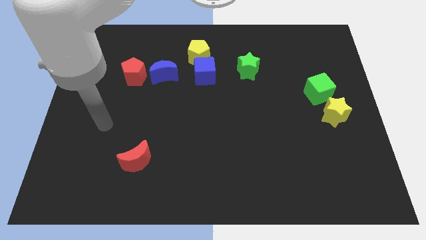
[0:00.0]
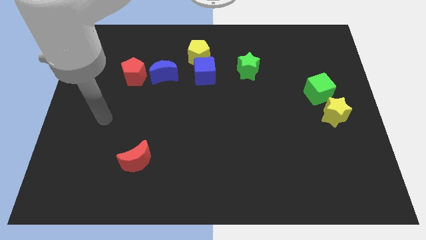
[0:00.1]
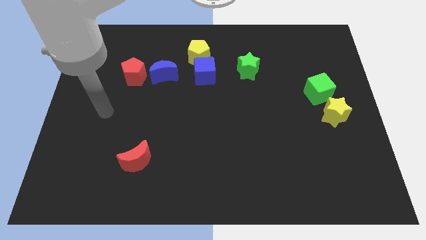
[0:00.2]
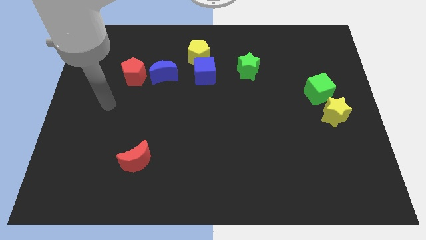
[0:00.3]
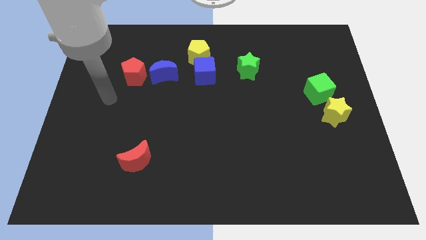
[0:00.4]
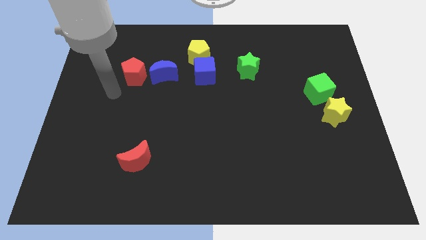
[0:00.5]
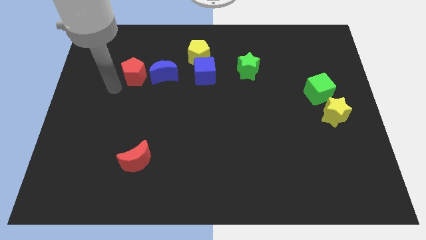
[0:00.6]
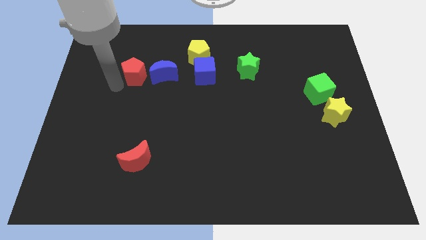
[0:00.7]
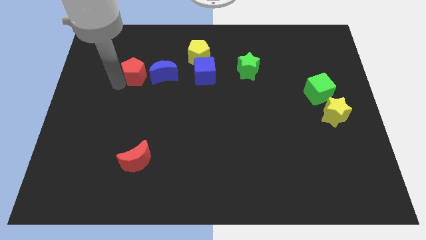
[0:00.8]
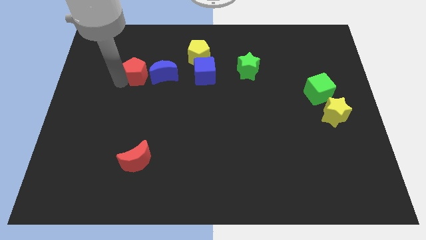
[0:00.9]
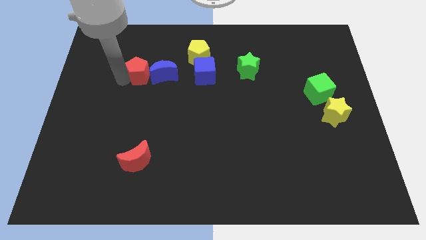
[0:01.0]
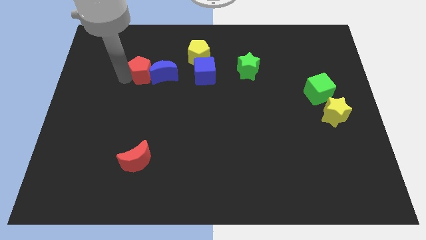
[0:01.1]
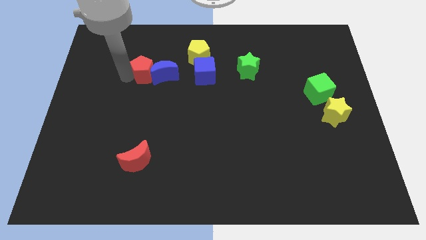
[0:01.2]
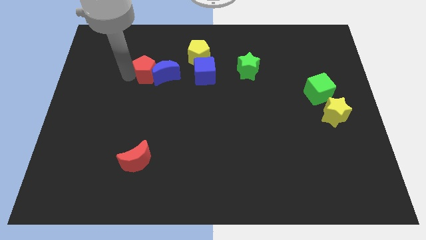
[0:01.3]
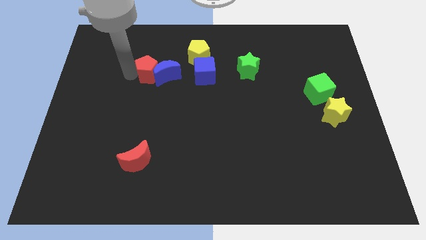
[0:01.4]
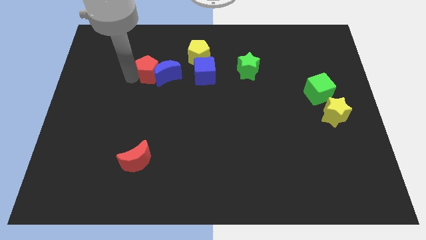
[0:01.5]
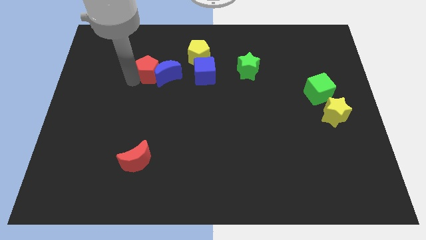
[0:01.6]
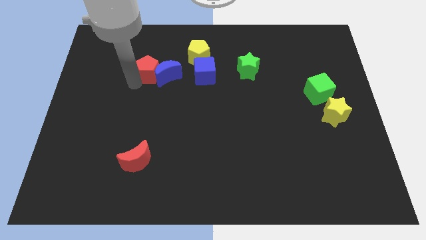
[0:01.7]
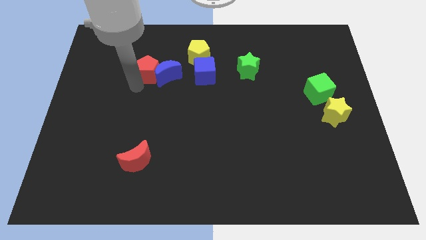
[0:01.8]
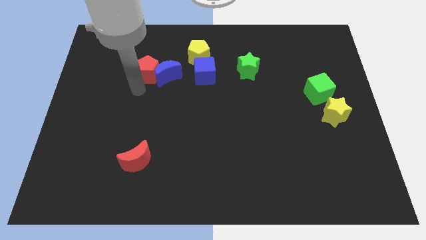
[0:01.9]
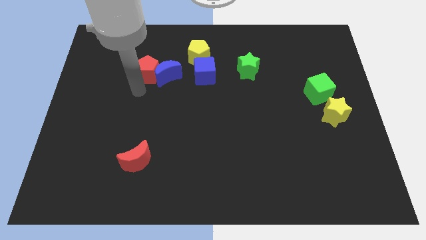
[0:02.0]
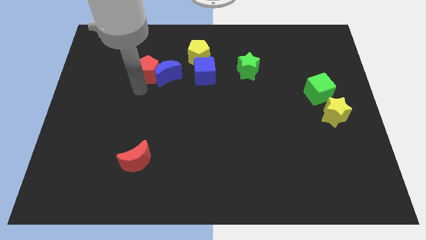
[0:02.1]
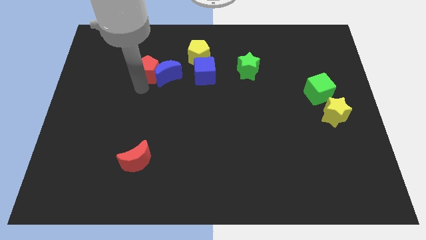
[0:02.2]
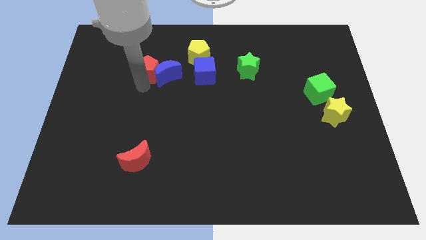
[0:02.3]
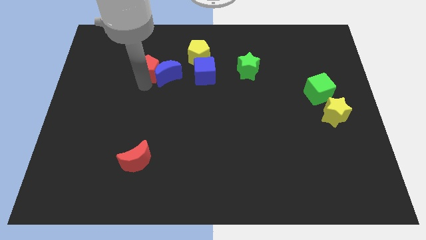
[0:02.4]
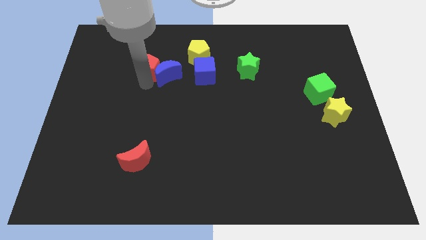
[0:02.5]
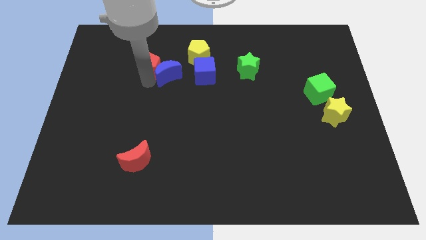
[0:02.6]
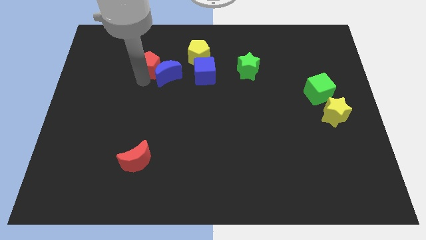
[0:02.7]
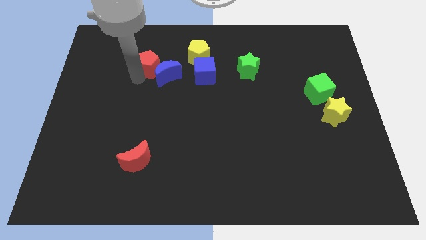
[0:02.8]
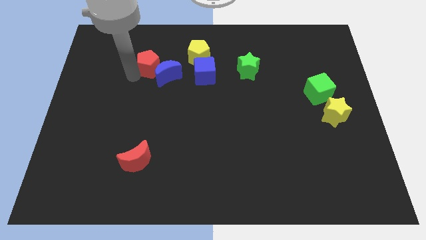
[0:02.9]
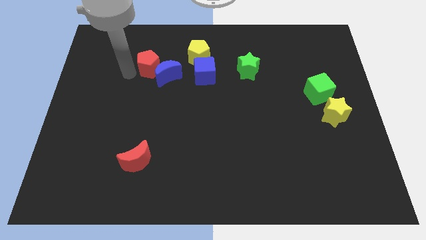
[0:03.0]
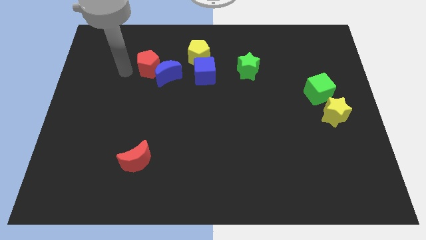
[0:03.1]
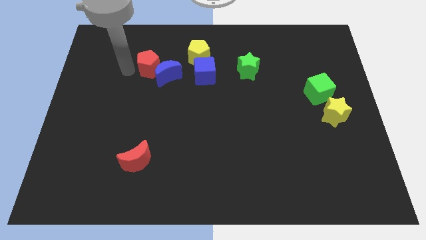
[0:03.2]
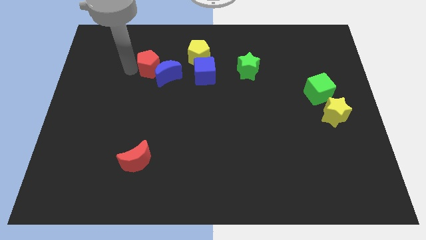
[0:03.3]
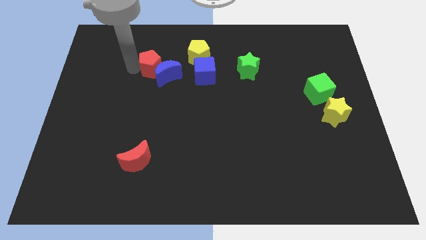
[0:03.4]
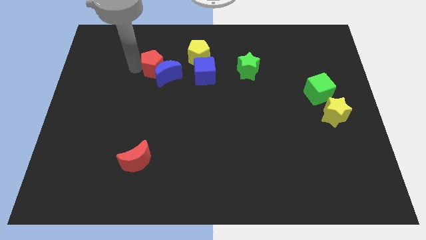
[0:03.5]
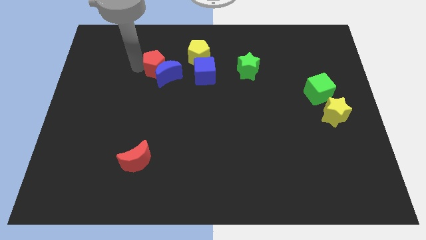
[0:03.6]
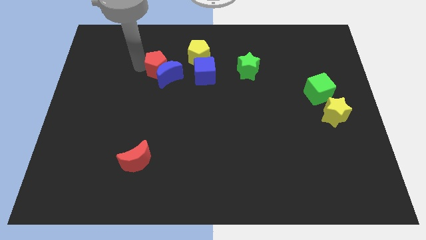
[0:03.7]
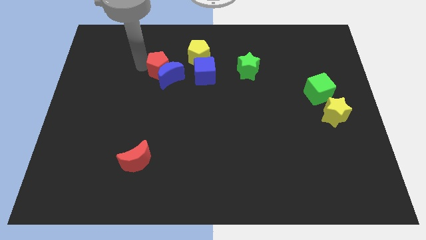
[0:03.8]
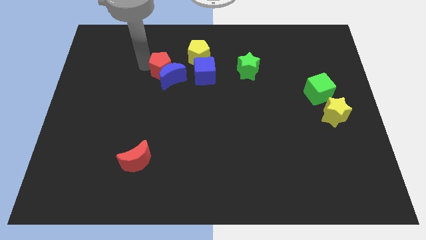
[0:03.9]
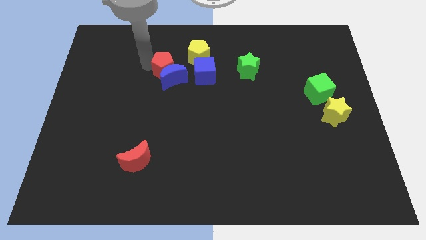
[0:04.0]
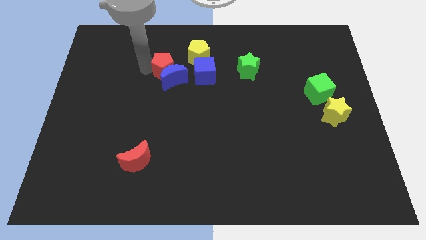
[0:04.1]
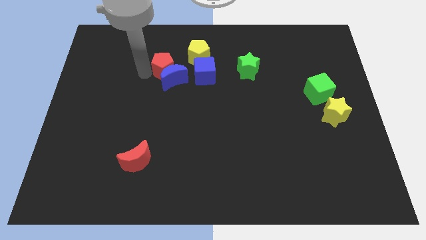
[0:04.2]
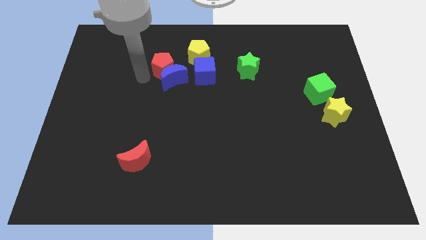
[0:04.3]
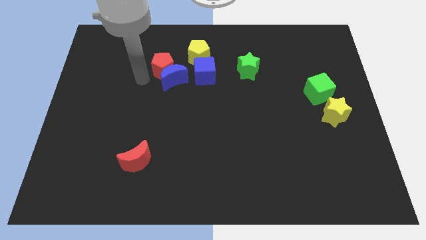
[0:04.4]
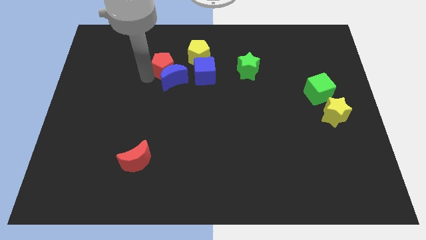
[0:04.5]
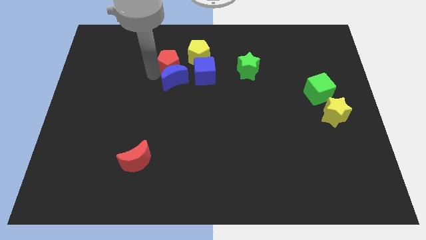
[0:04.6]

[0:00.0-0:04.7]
move the red pentagon to the top left of the blue cube

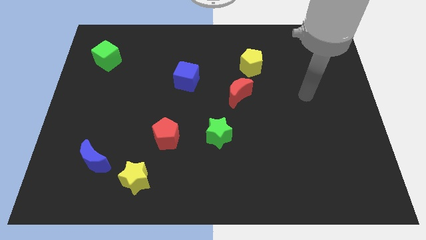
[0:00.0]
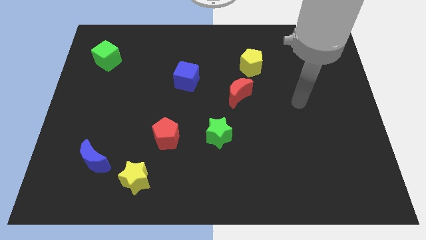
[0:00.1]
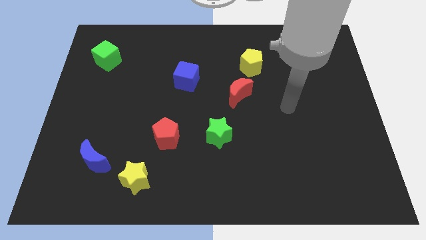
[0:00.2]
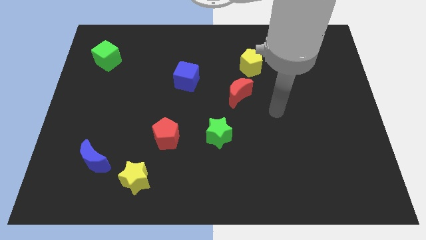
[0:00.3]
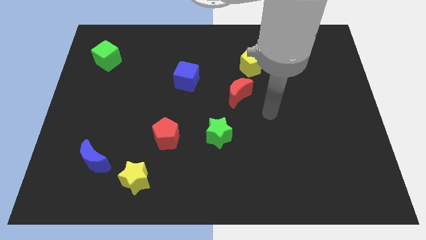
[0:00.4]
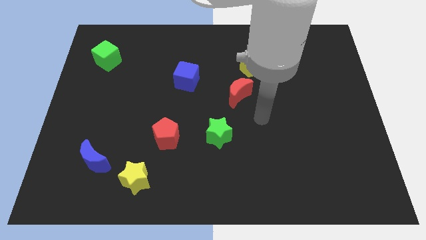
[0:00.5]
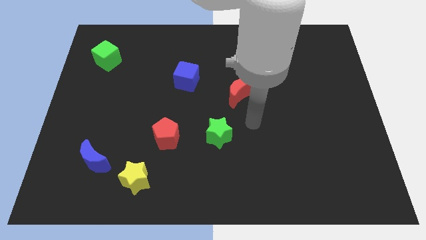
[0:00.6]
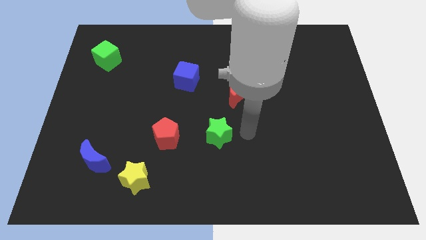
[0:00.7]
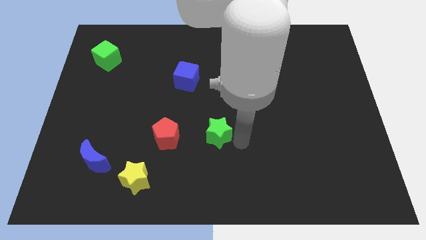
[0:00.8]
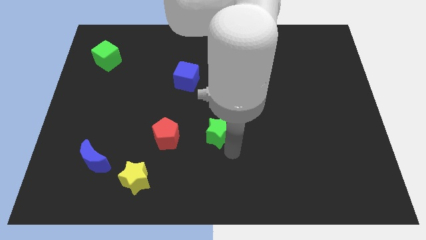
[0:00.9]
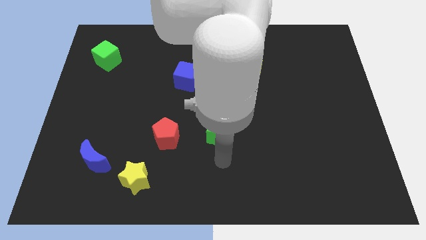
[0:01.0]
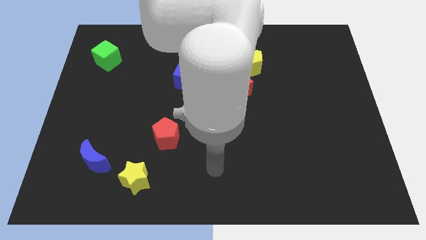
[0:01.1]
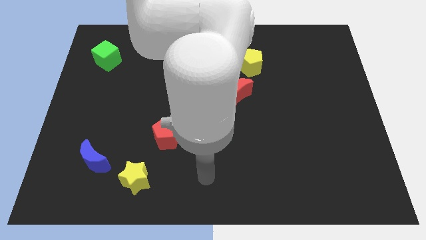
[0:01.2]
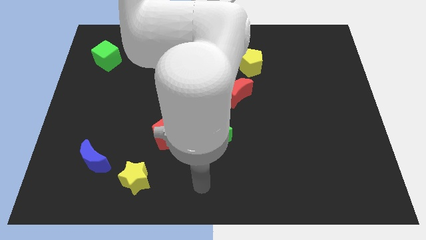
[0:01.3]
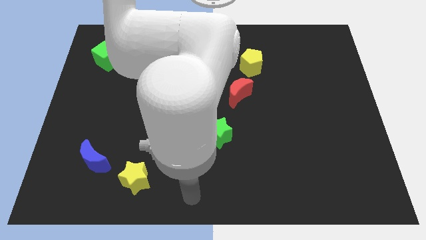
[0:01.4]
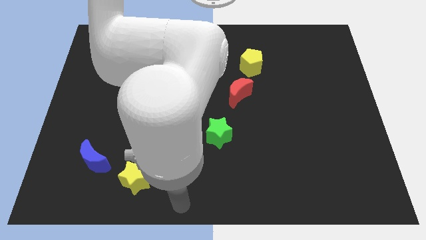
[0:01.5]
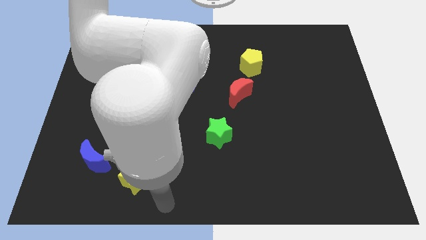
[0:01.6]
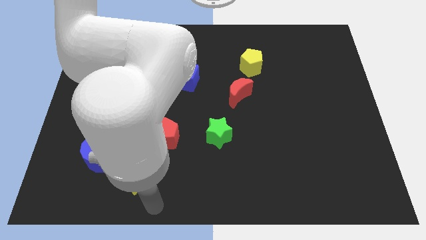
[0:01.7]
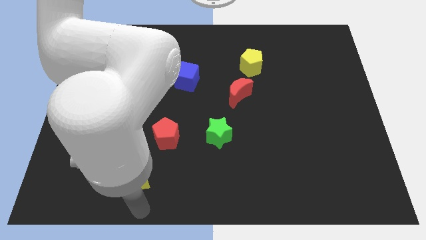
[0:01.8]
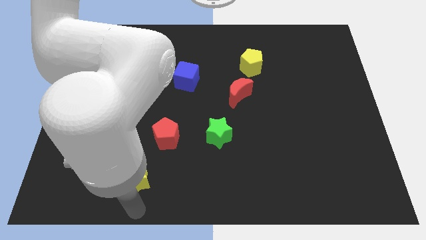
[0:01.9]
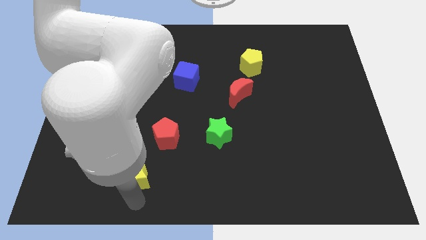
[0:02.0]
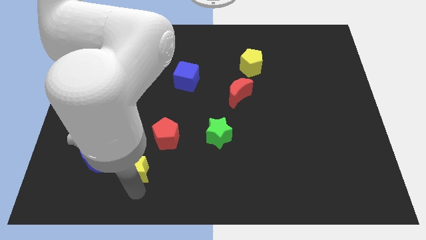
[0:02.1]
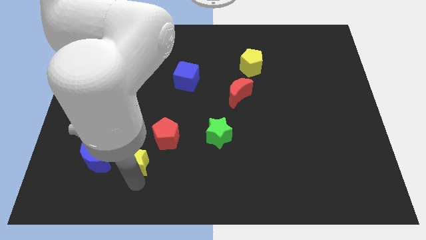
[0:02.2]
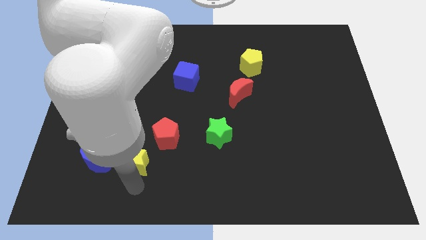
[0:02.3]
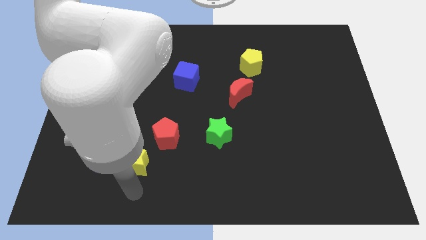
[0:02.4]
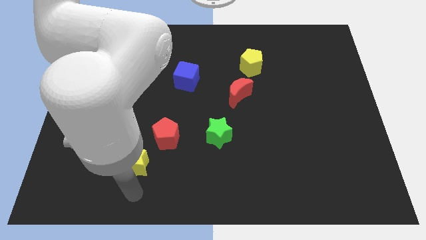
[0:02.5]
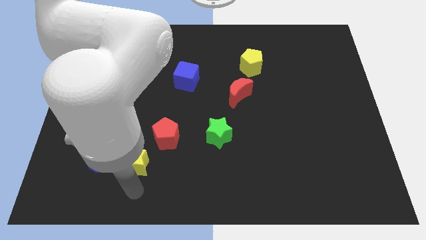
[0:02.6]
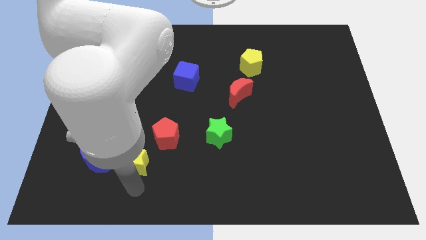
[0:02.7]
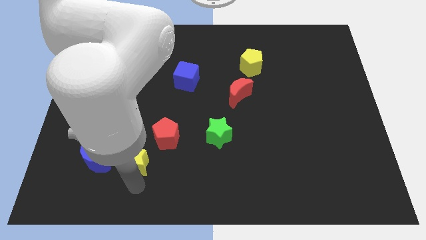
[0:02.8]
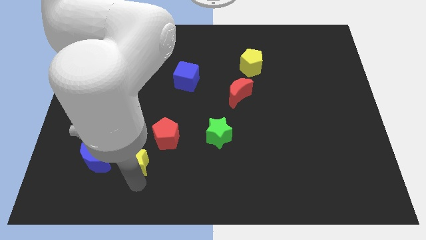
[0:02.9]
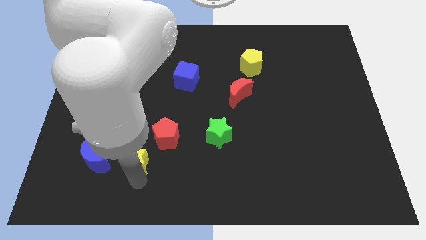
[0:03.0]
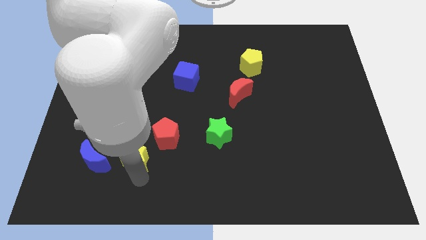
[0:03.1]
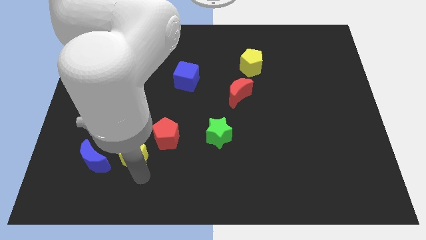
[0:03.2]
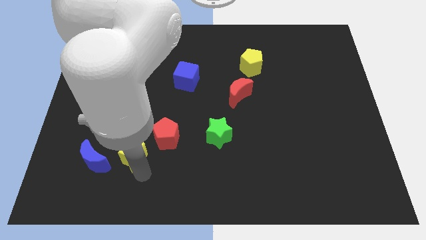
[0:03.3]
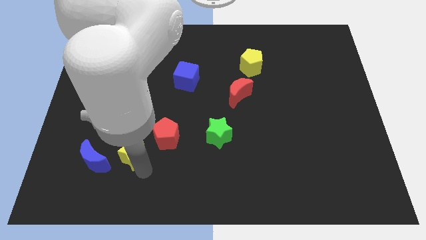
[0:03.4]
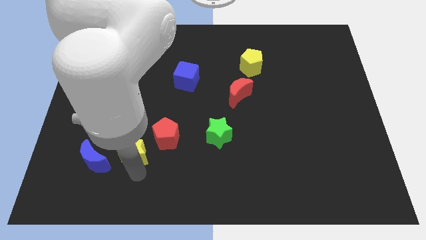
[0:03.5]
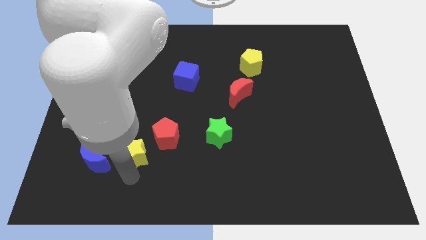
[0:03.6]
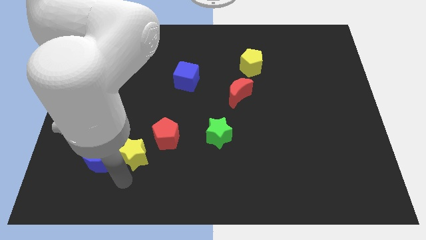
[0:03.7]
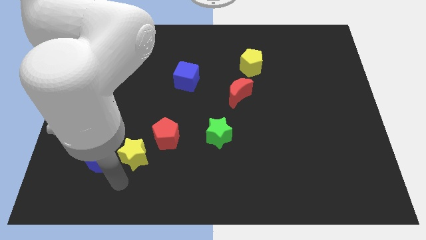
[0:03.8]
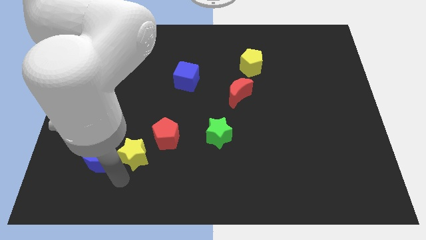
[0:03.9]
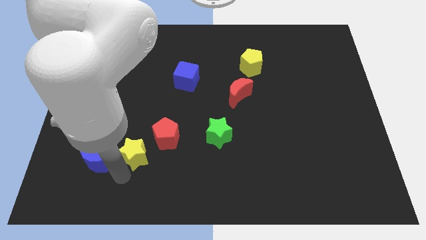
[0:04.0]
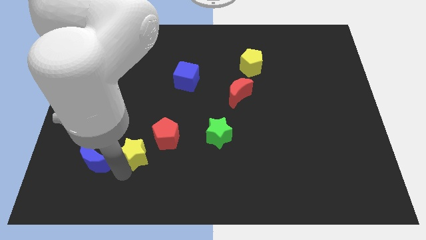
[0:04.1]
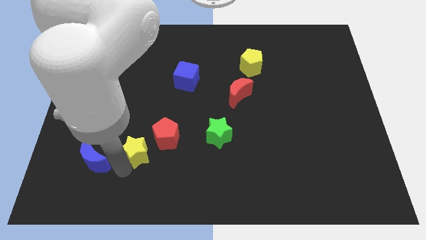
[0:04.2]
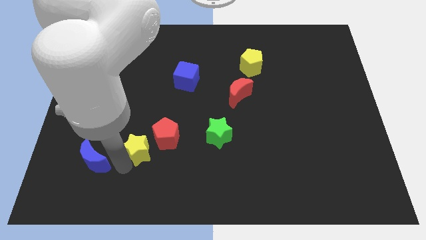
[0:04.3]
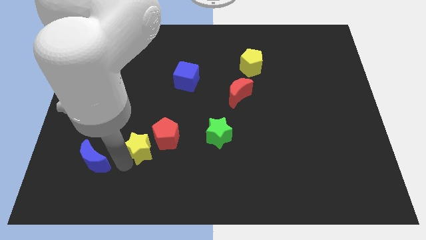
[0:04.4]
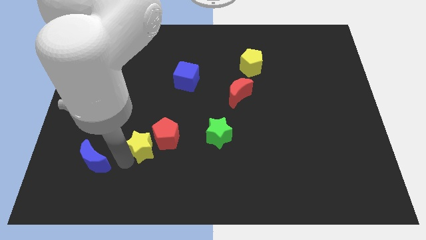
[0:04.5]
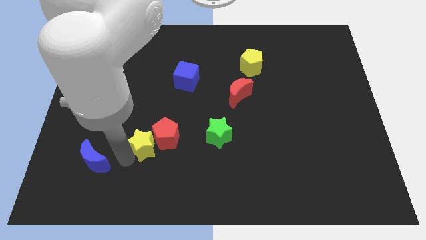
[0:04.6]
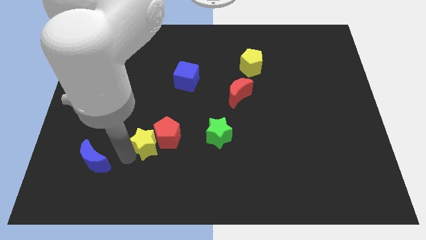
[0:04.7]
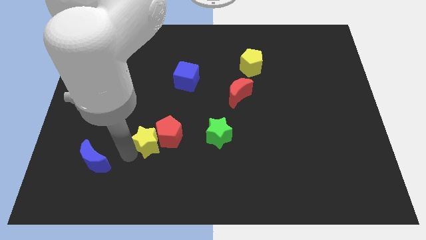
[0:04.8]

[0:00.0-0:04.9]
put the yellow star left of the green star
